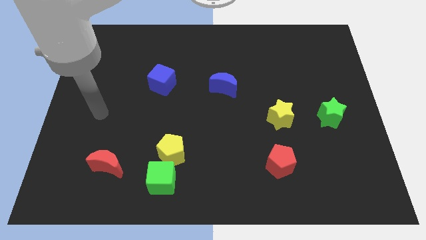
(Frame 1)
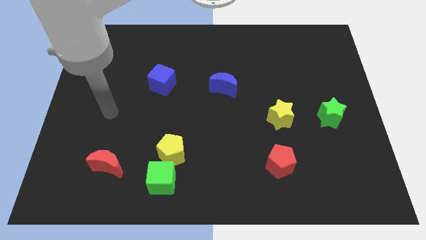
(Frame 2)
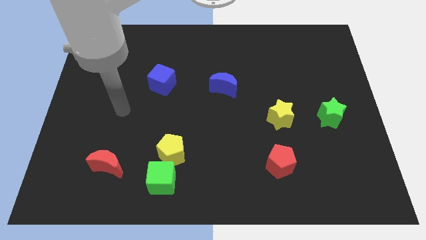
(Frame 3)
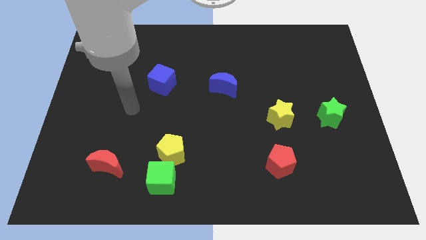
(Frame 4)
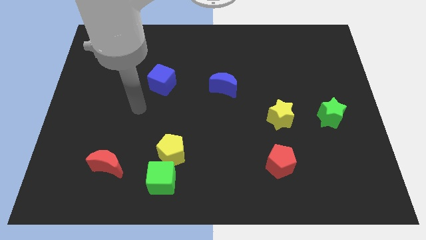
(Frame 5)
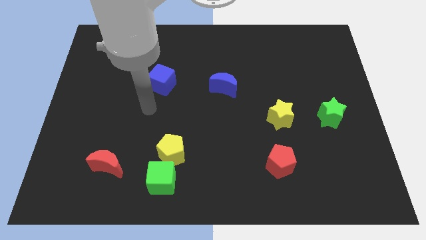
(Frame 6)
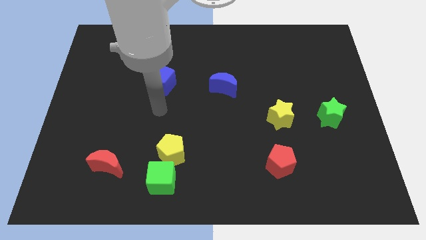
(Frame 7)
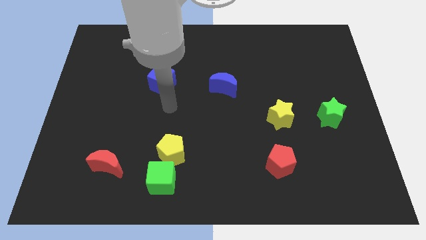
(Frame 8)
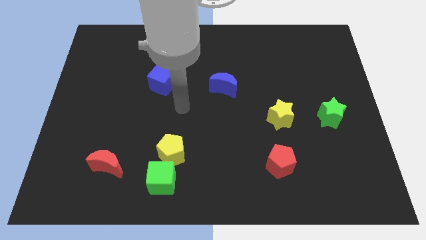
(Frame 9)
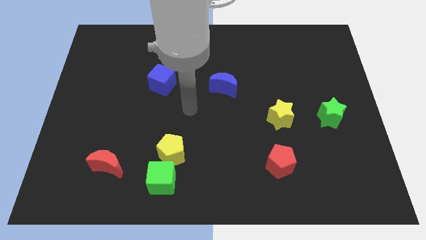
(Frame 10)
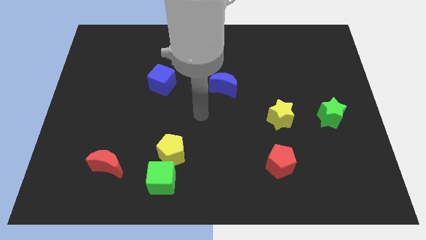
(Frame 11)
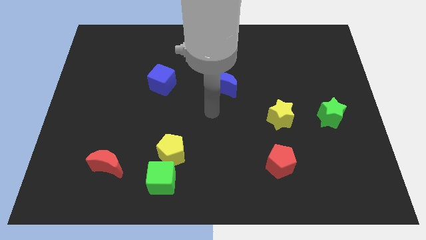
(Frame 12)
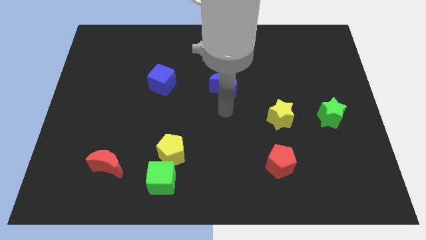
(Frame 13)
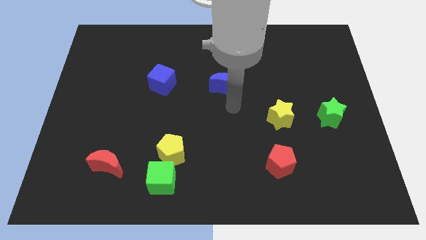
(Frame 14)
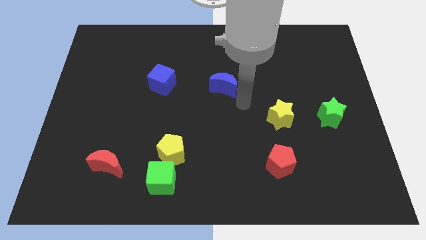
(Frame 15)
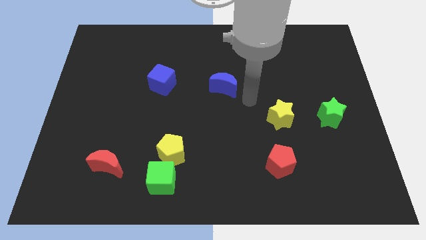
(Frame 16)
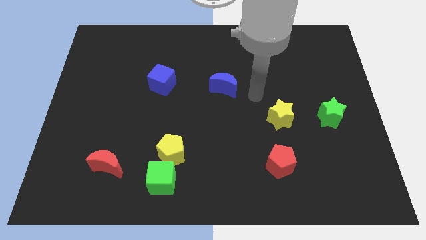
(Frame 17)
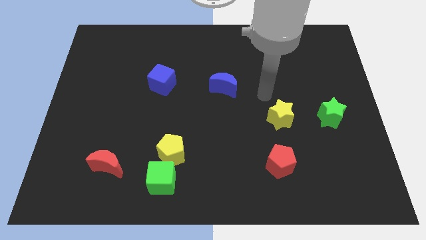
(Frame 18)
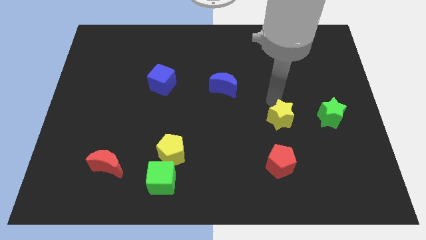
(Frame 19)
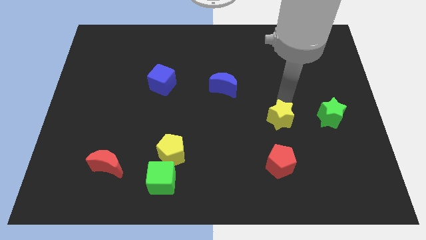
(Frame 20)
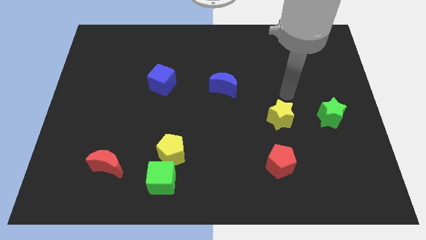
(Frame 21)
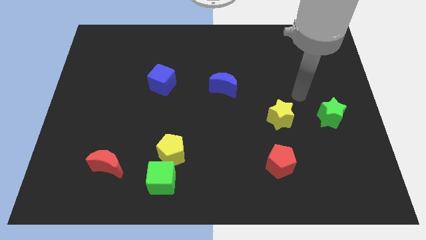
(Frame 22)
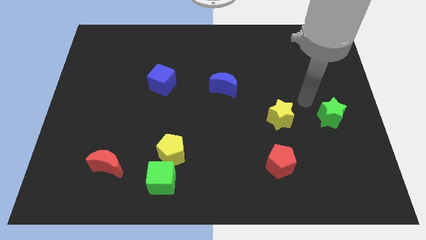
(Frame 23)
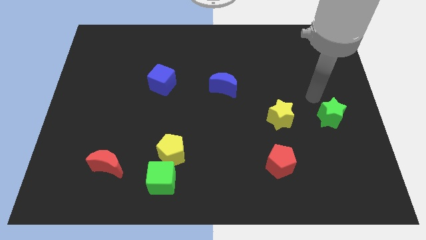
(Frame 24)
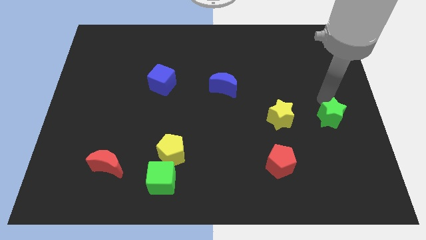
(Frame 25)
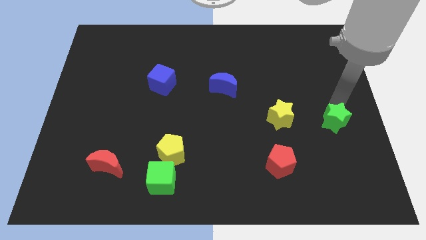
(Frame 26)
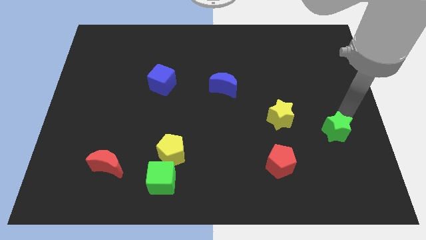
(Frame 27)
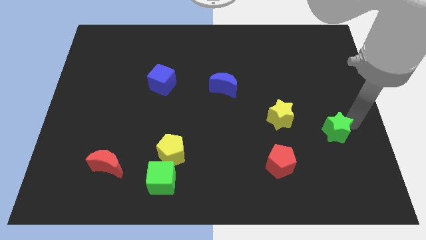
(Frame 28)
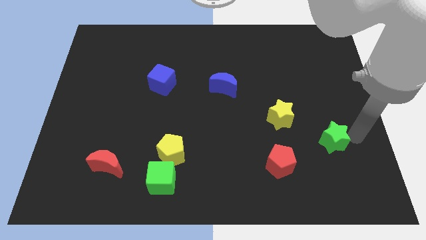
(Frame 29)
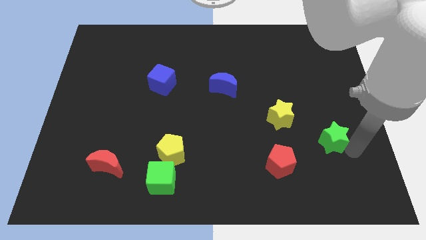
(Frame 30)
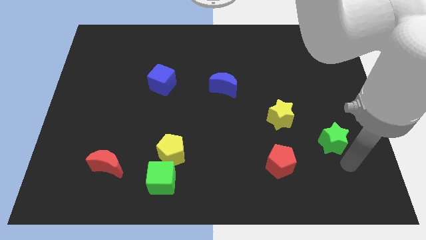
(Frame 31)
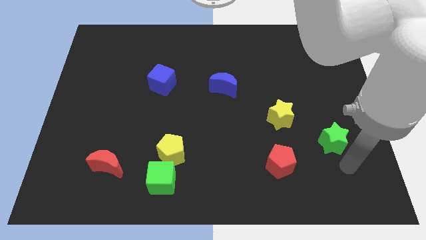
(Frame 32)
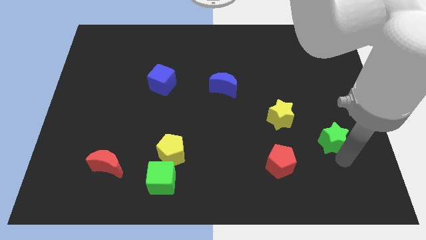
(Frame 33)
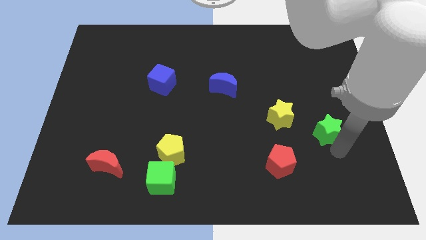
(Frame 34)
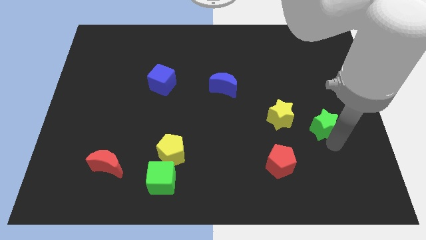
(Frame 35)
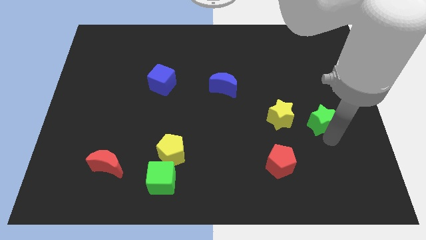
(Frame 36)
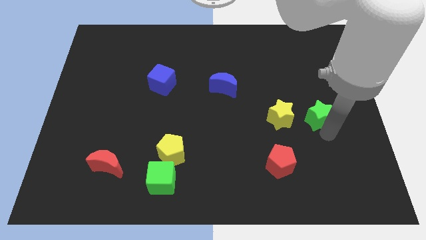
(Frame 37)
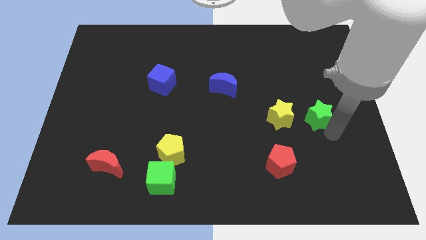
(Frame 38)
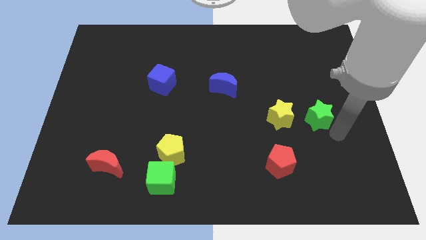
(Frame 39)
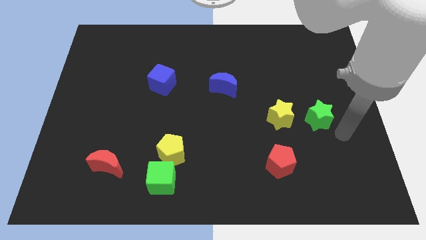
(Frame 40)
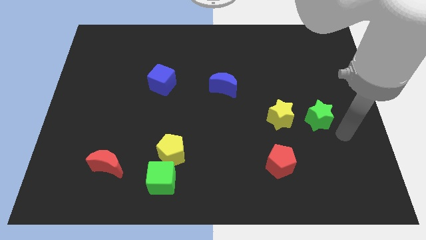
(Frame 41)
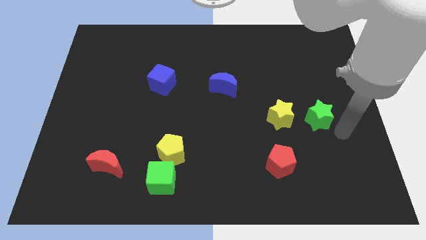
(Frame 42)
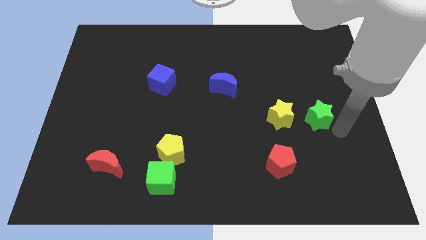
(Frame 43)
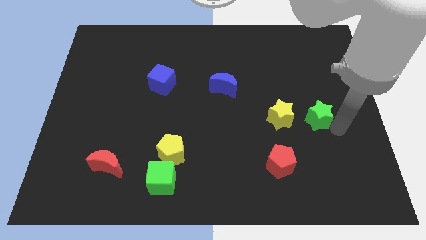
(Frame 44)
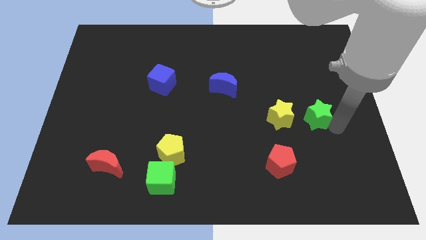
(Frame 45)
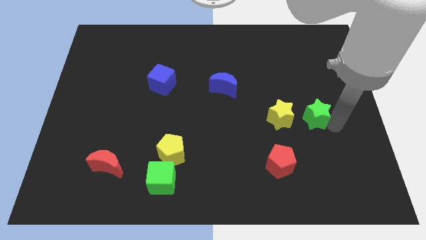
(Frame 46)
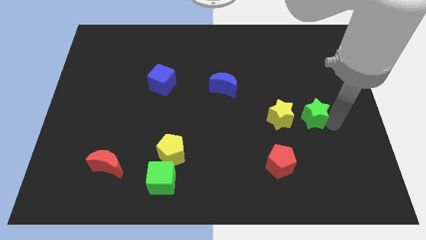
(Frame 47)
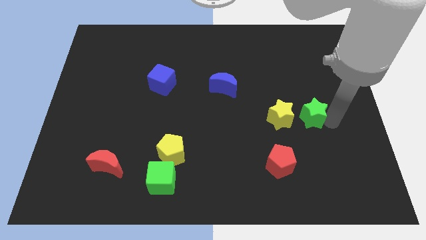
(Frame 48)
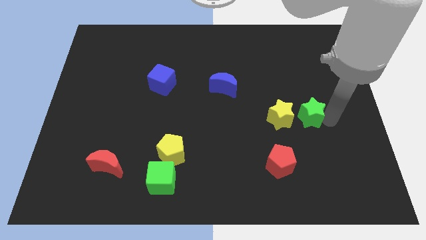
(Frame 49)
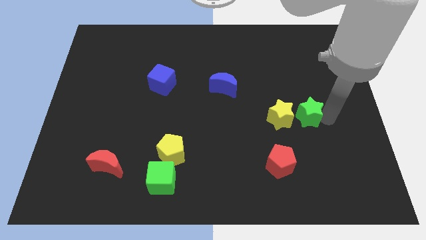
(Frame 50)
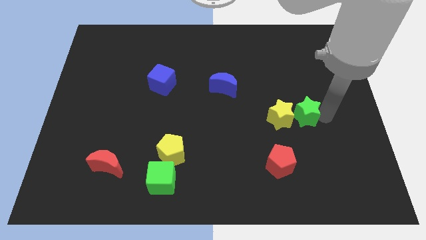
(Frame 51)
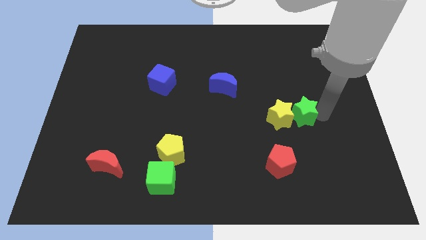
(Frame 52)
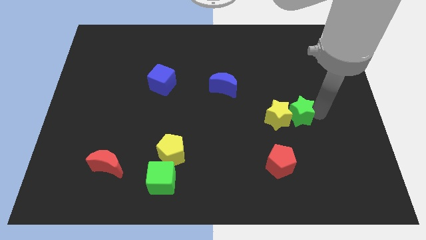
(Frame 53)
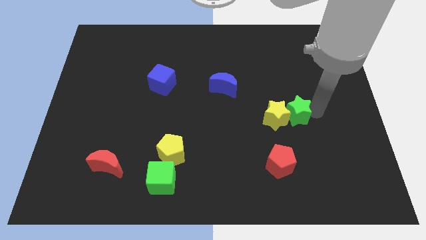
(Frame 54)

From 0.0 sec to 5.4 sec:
slide the green star somewhat to the left

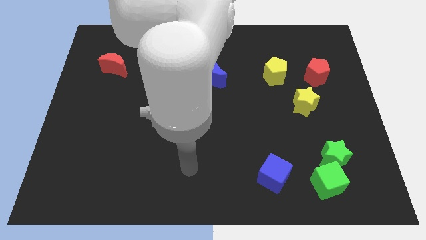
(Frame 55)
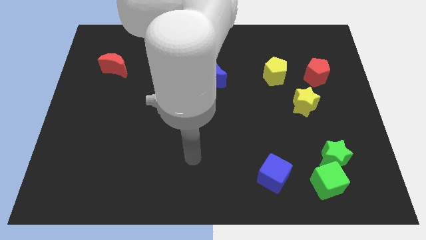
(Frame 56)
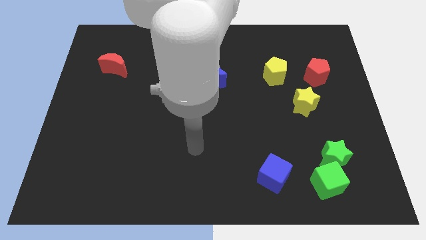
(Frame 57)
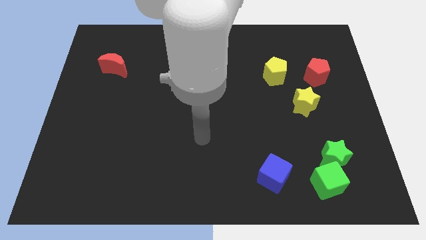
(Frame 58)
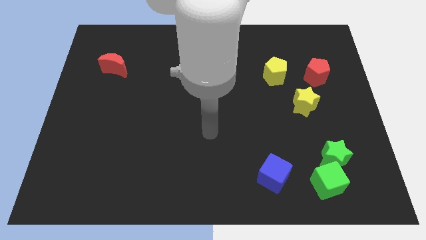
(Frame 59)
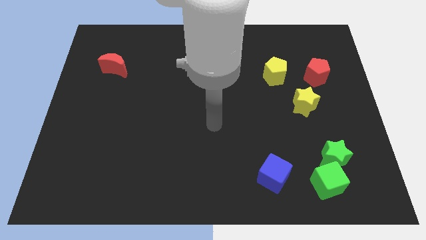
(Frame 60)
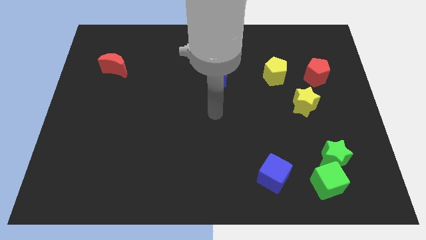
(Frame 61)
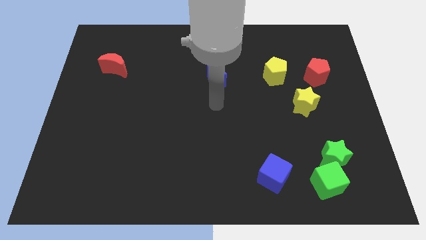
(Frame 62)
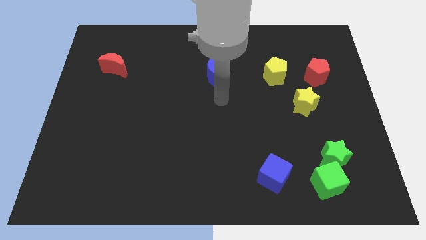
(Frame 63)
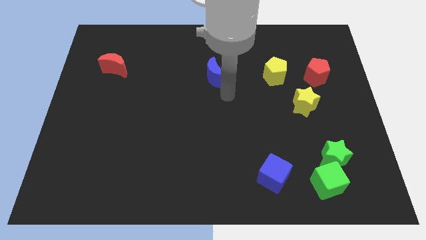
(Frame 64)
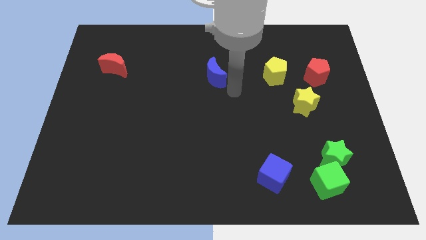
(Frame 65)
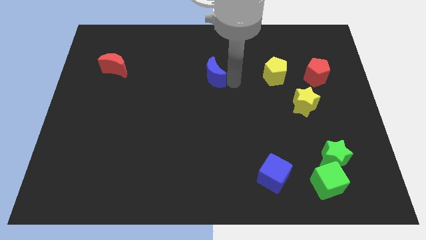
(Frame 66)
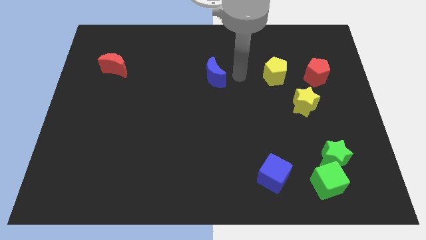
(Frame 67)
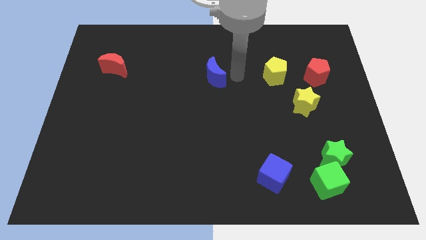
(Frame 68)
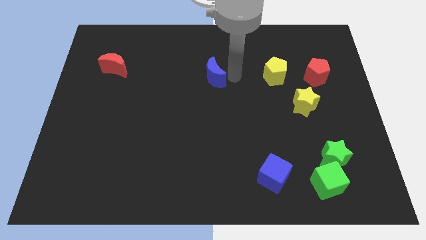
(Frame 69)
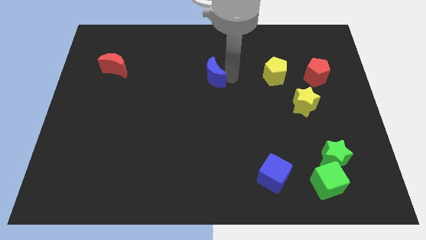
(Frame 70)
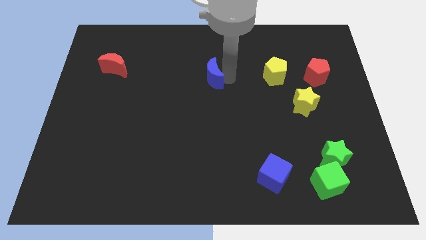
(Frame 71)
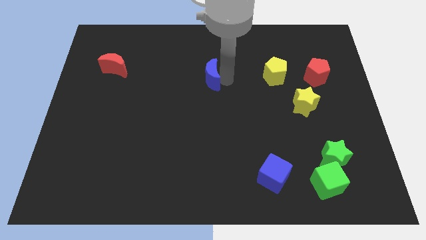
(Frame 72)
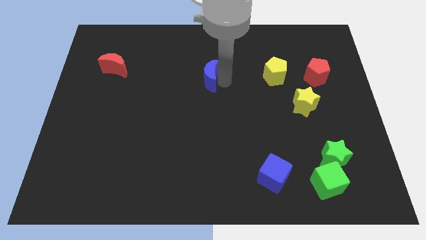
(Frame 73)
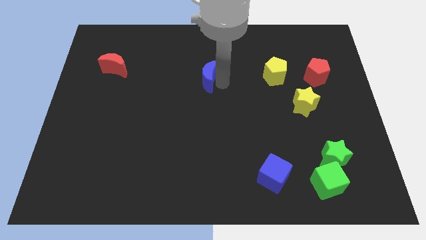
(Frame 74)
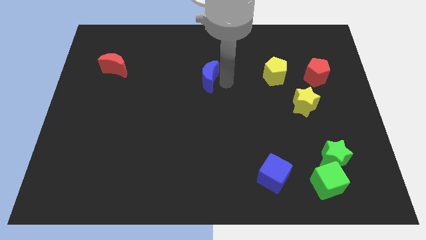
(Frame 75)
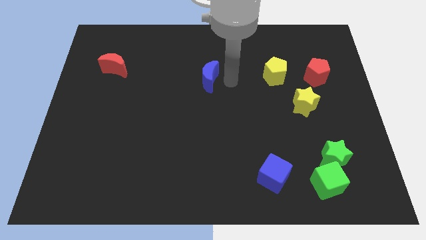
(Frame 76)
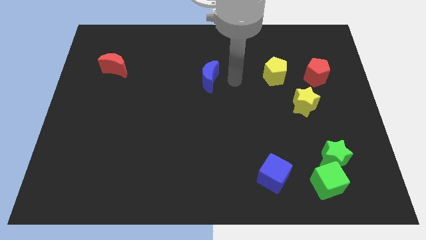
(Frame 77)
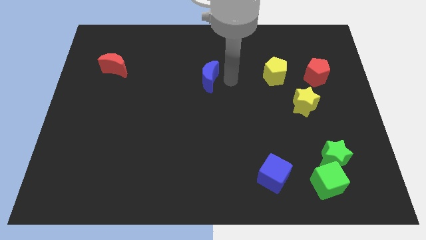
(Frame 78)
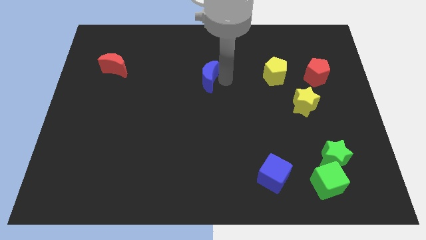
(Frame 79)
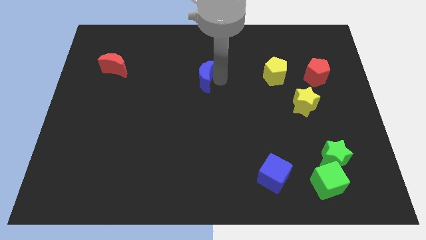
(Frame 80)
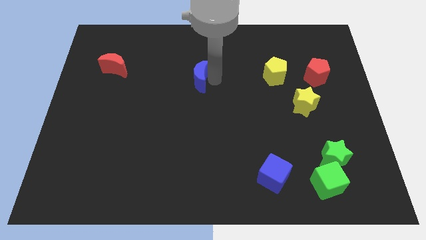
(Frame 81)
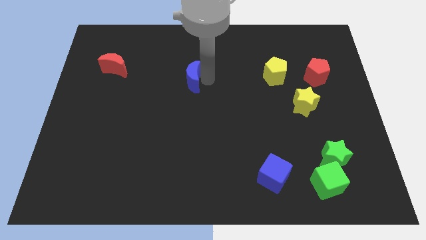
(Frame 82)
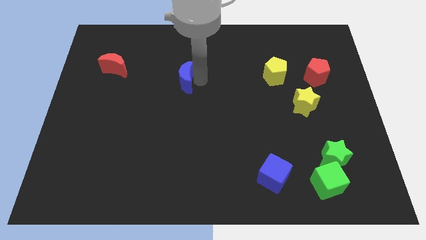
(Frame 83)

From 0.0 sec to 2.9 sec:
slightly move the blue moon to the left
